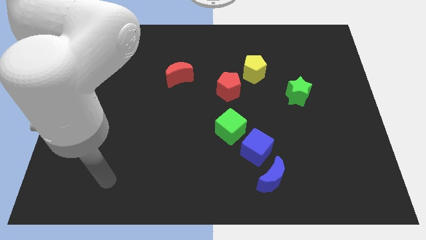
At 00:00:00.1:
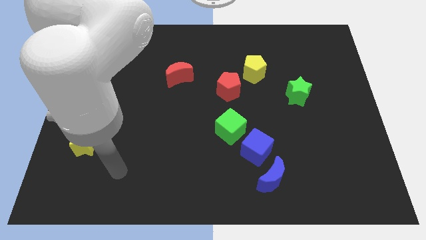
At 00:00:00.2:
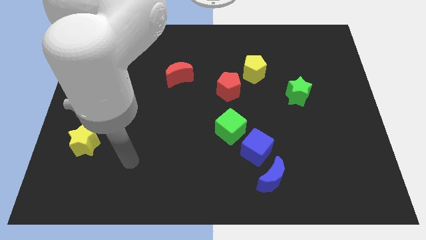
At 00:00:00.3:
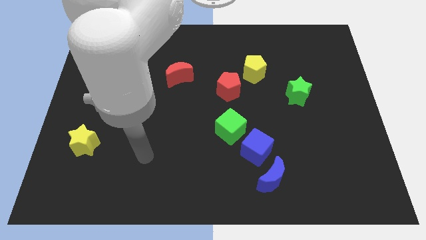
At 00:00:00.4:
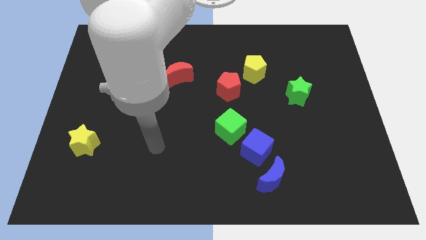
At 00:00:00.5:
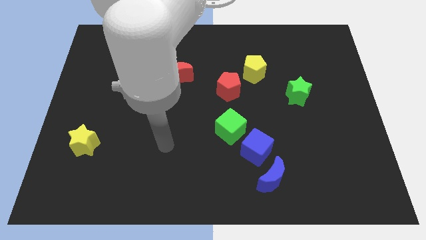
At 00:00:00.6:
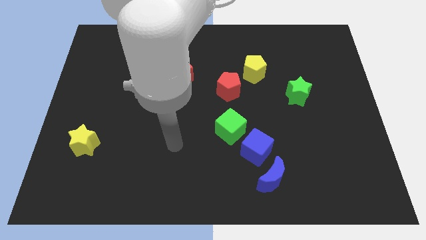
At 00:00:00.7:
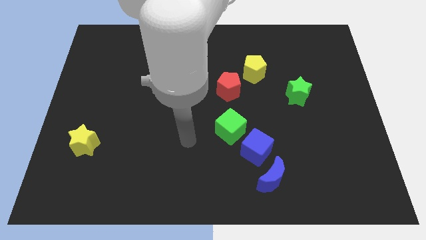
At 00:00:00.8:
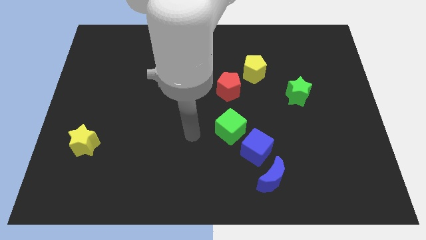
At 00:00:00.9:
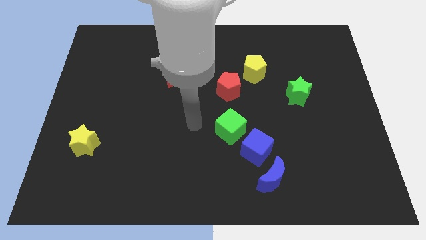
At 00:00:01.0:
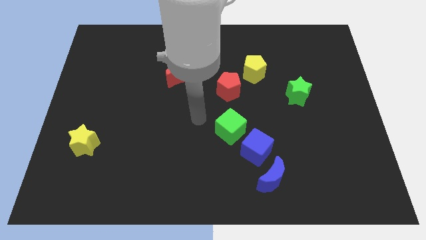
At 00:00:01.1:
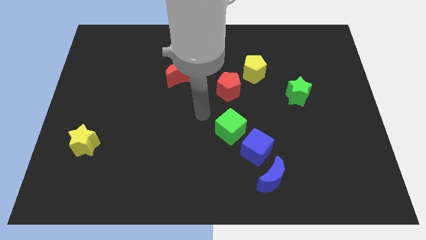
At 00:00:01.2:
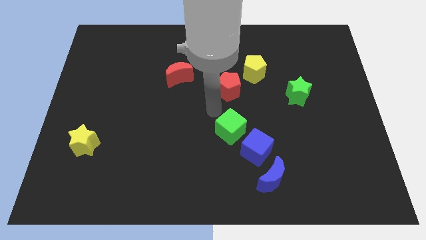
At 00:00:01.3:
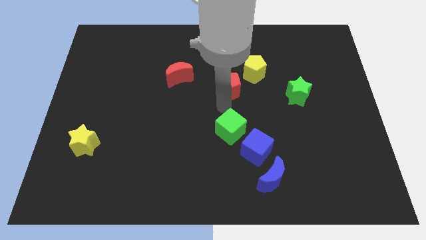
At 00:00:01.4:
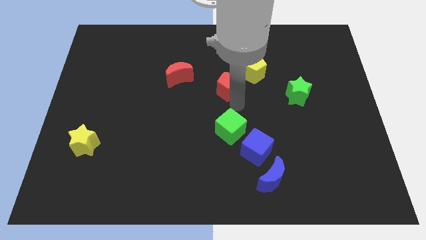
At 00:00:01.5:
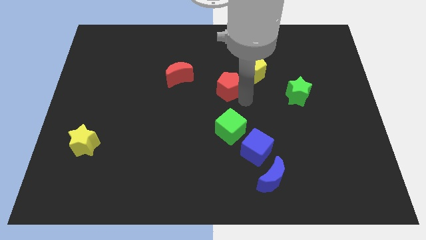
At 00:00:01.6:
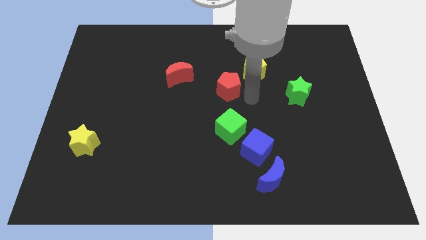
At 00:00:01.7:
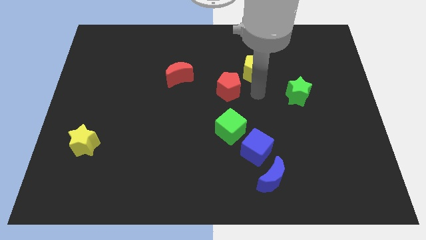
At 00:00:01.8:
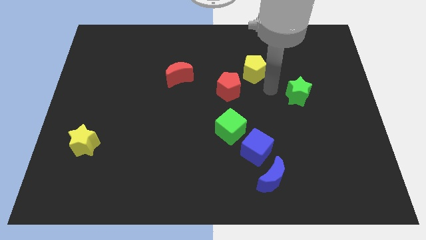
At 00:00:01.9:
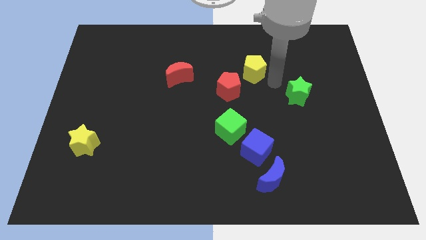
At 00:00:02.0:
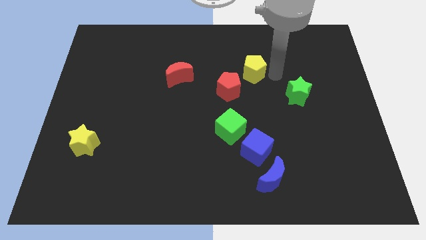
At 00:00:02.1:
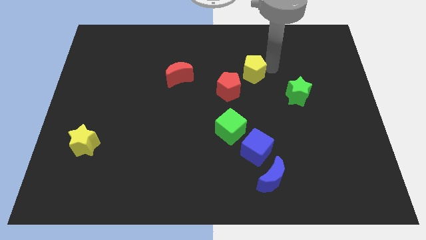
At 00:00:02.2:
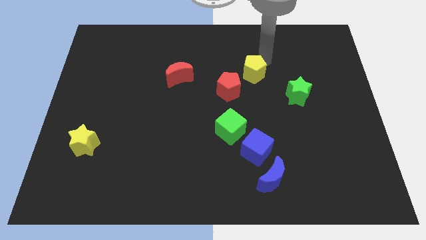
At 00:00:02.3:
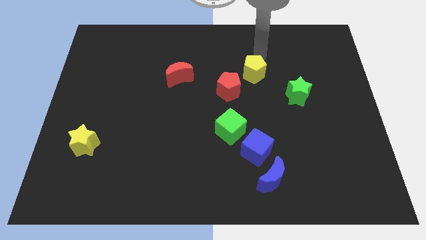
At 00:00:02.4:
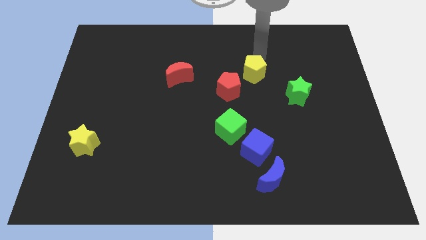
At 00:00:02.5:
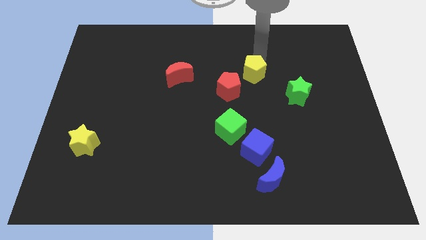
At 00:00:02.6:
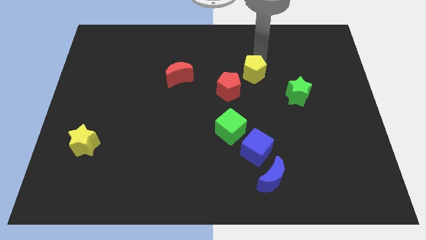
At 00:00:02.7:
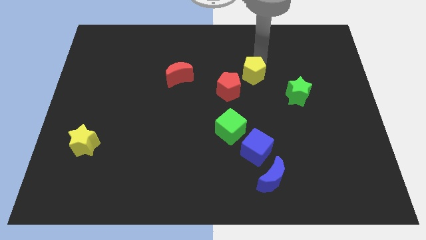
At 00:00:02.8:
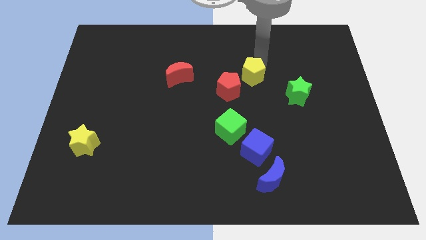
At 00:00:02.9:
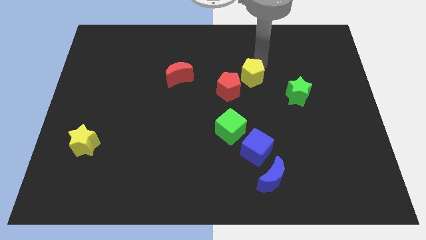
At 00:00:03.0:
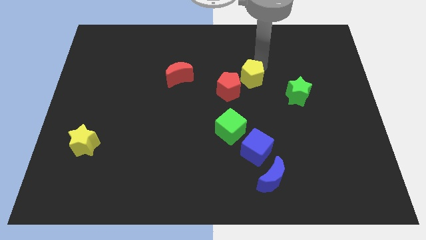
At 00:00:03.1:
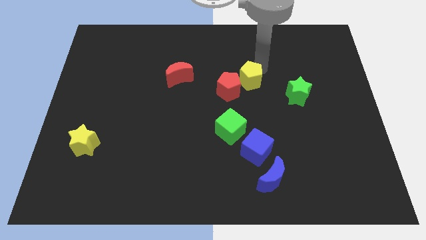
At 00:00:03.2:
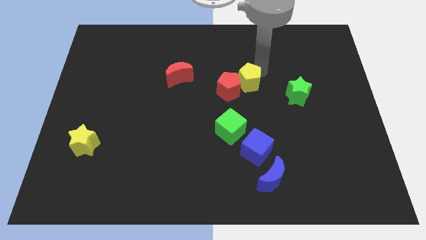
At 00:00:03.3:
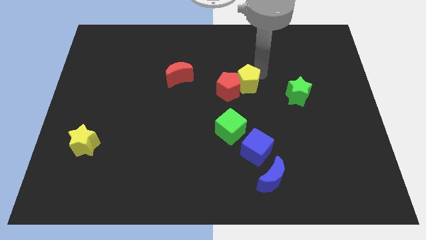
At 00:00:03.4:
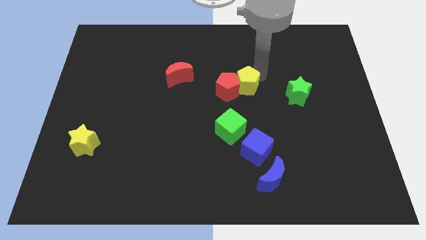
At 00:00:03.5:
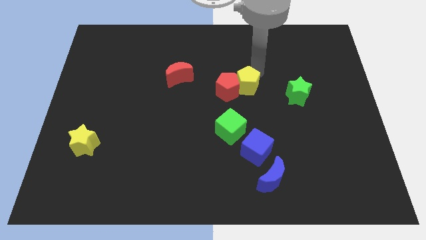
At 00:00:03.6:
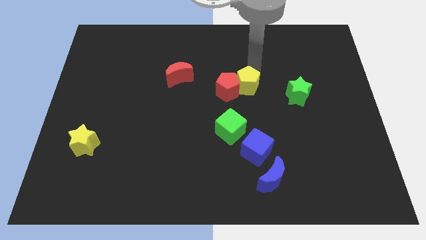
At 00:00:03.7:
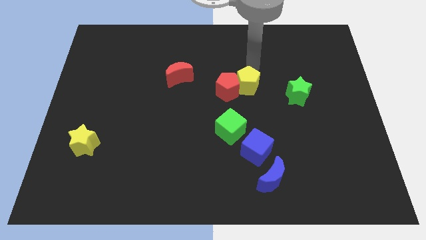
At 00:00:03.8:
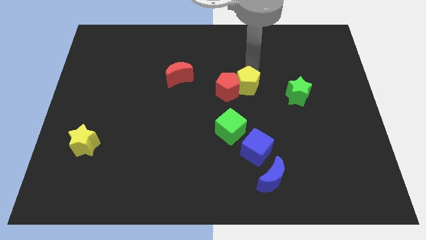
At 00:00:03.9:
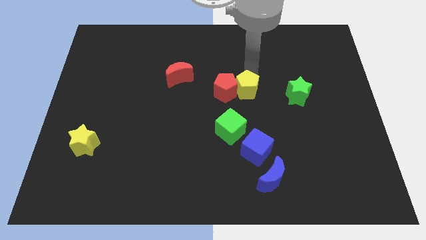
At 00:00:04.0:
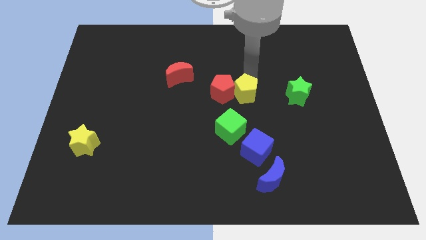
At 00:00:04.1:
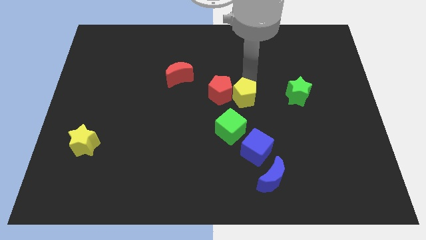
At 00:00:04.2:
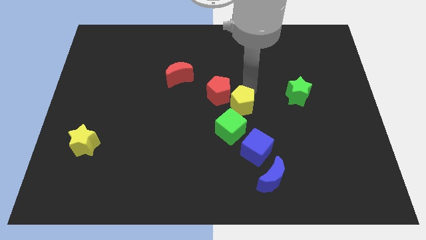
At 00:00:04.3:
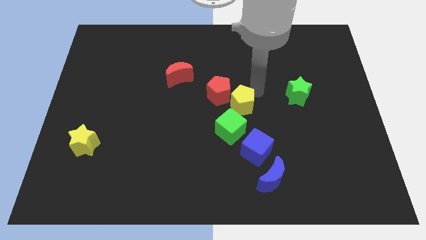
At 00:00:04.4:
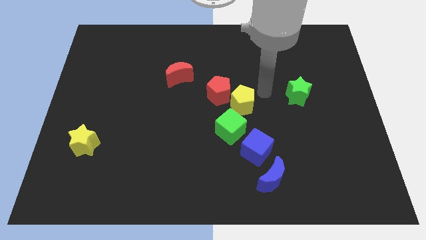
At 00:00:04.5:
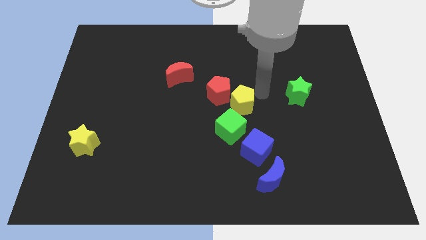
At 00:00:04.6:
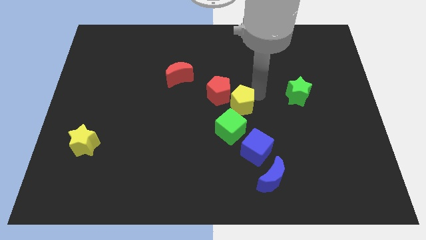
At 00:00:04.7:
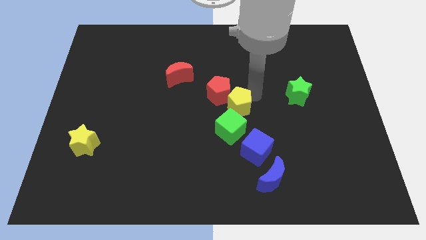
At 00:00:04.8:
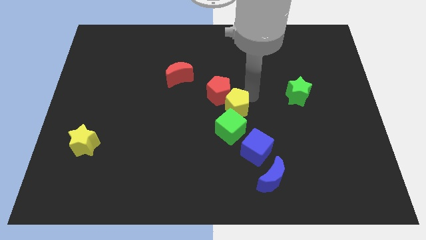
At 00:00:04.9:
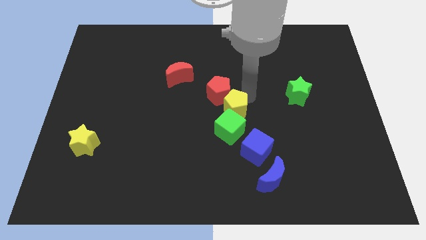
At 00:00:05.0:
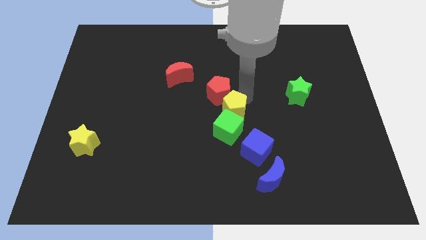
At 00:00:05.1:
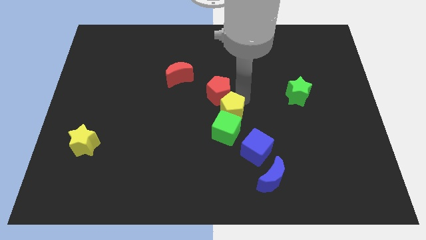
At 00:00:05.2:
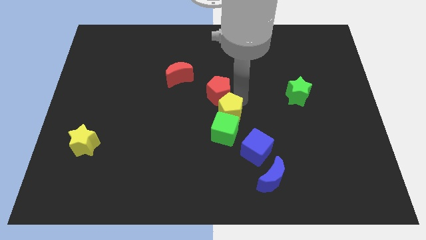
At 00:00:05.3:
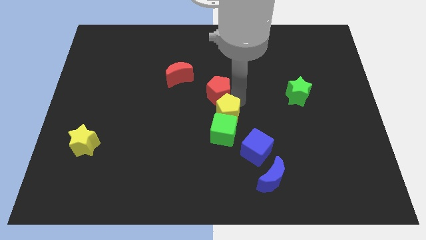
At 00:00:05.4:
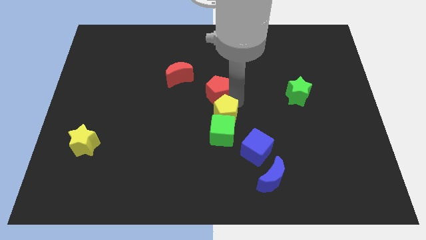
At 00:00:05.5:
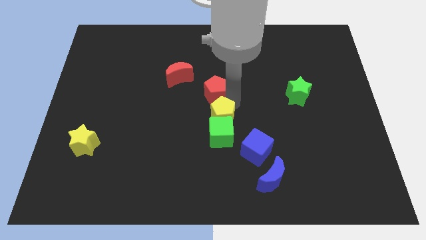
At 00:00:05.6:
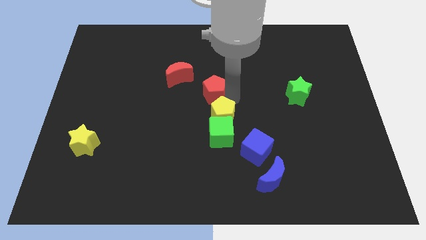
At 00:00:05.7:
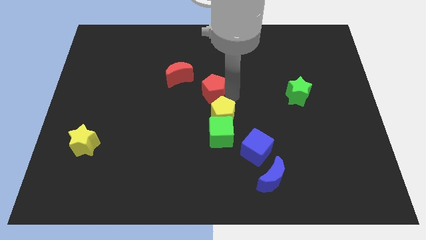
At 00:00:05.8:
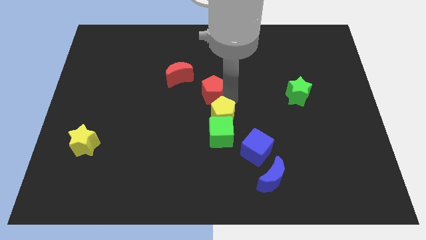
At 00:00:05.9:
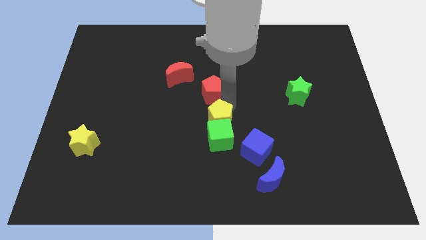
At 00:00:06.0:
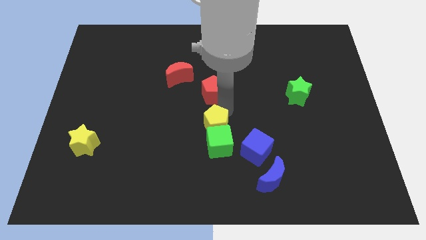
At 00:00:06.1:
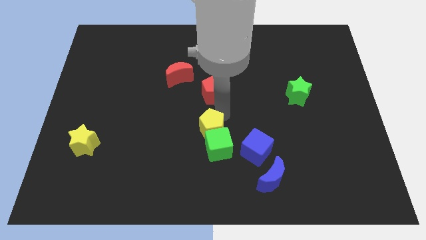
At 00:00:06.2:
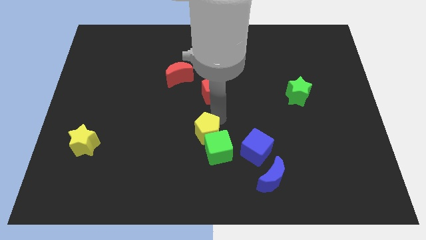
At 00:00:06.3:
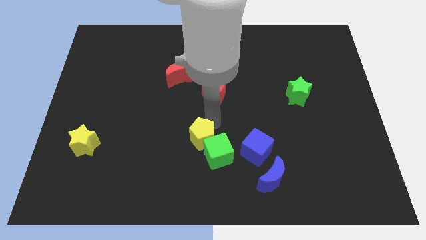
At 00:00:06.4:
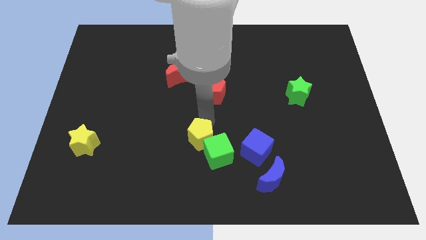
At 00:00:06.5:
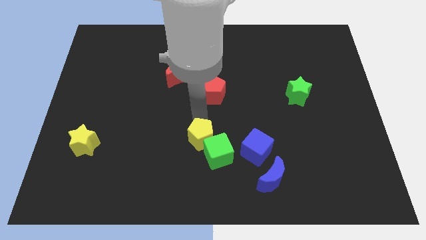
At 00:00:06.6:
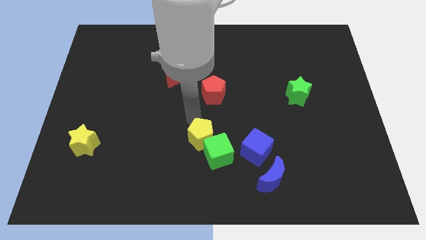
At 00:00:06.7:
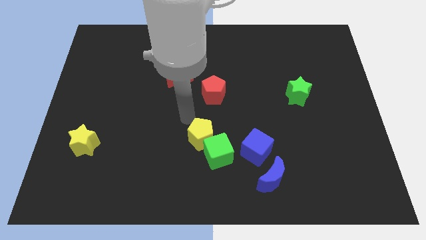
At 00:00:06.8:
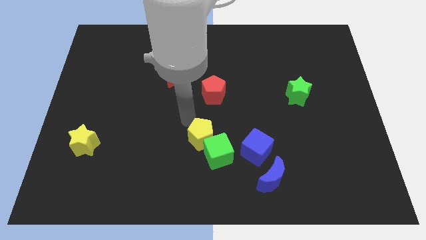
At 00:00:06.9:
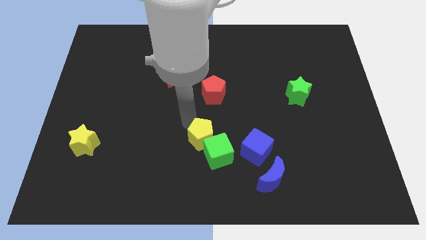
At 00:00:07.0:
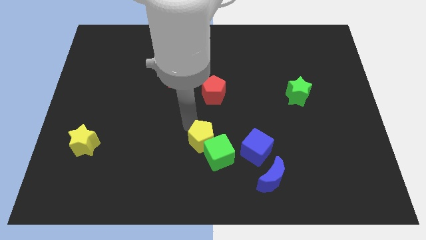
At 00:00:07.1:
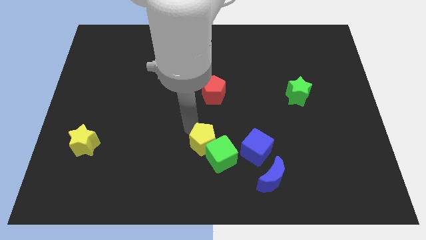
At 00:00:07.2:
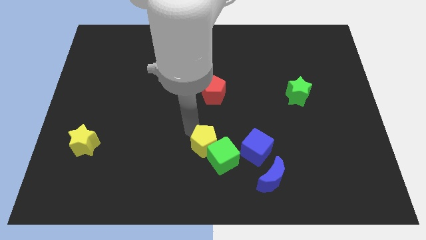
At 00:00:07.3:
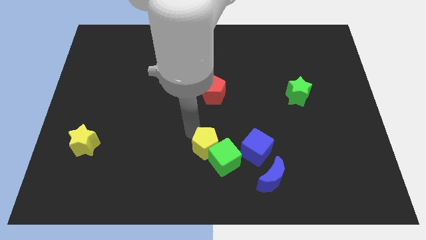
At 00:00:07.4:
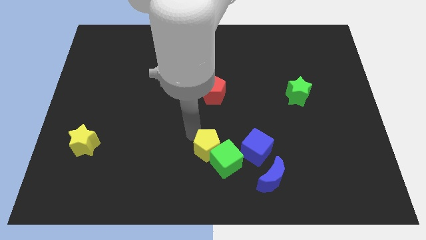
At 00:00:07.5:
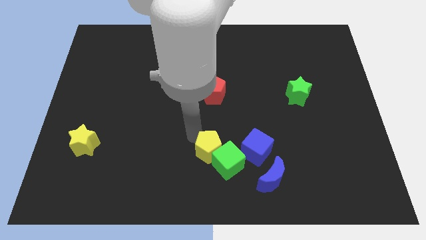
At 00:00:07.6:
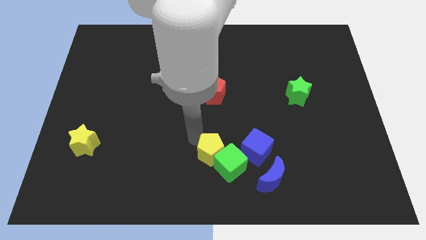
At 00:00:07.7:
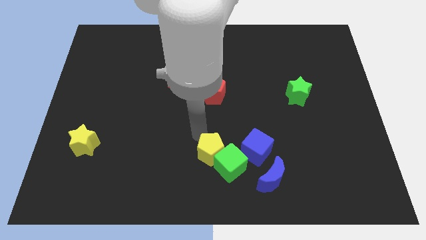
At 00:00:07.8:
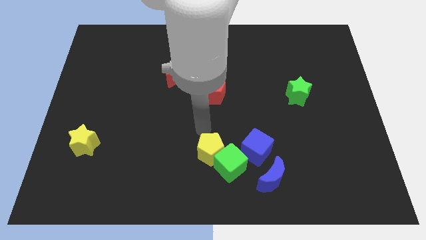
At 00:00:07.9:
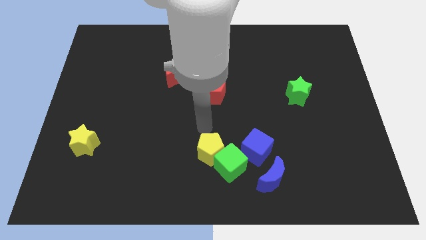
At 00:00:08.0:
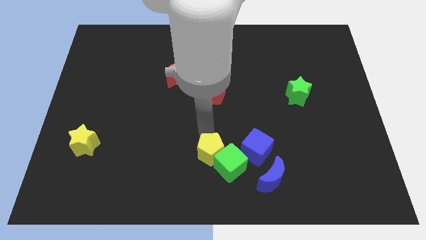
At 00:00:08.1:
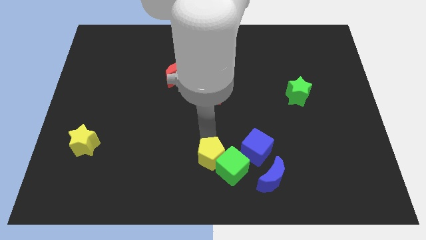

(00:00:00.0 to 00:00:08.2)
put the yellow pentagon to the bottom
